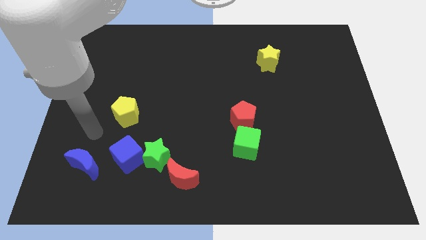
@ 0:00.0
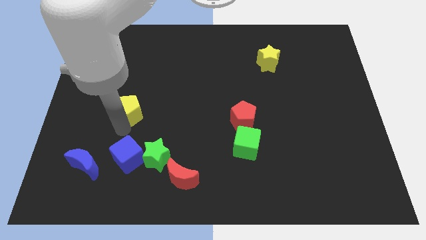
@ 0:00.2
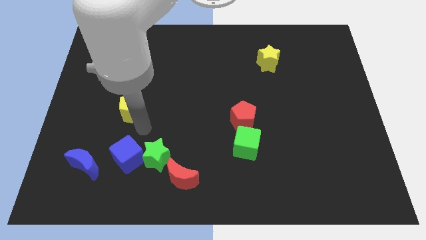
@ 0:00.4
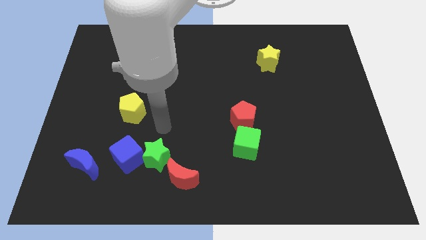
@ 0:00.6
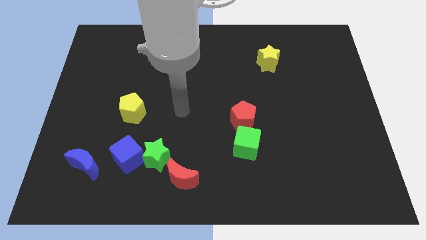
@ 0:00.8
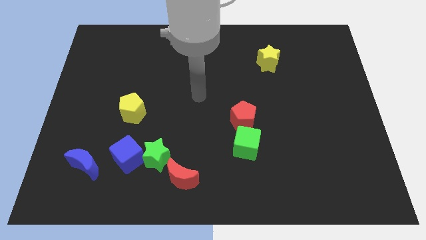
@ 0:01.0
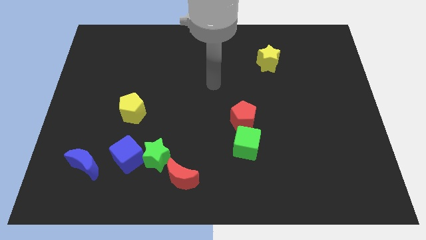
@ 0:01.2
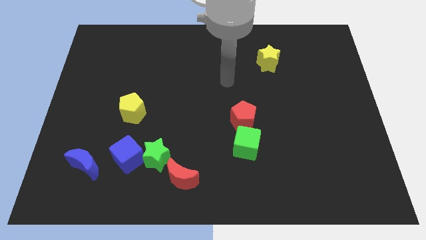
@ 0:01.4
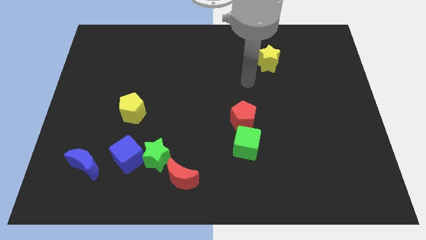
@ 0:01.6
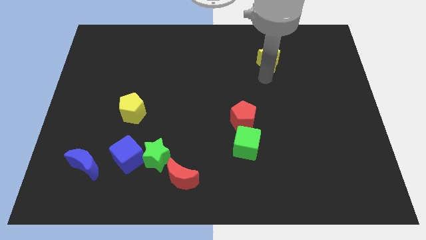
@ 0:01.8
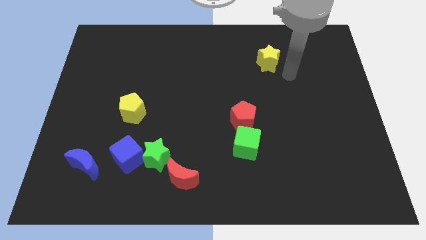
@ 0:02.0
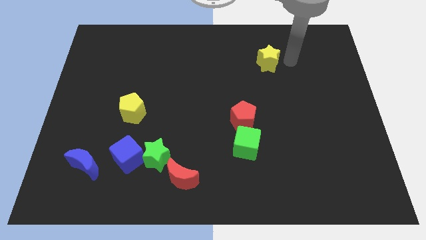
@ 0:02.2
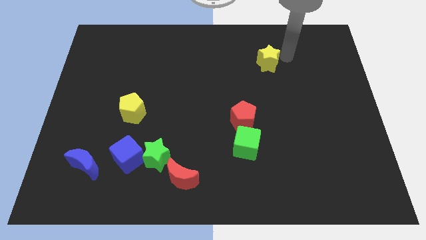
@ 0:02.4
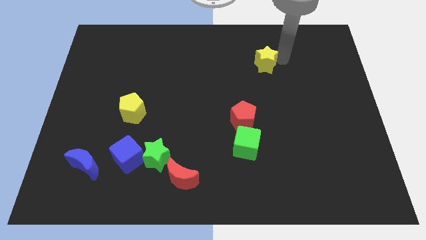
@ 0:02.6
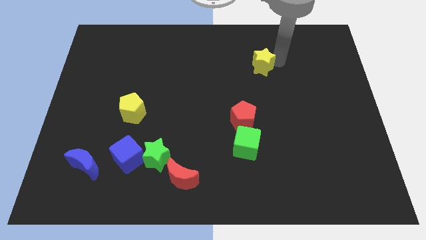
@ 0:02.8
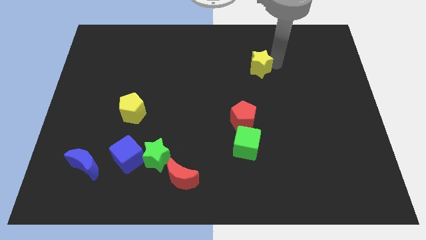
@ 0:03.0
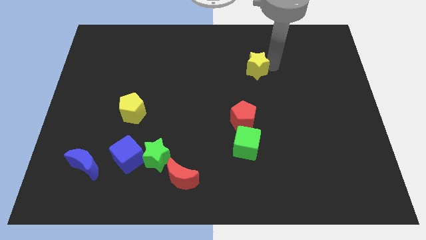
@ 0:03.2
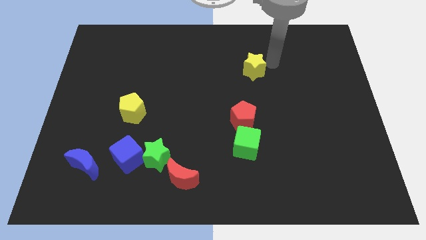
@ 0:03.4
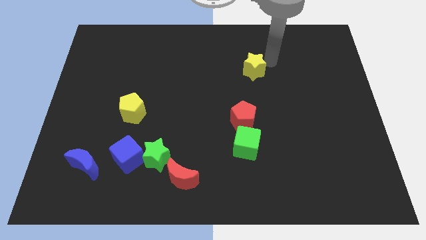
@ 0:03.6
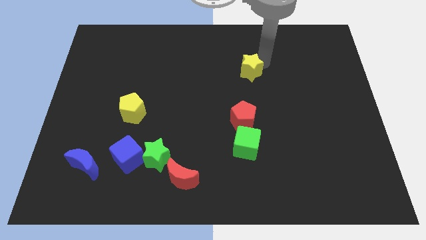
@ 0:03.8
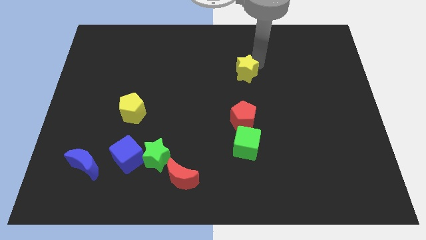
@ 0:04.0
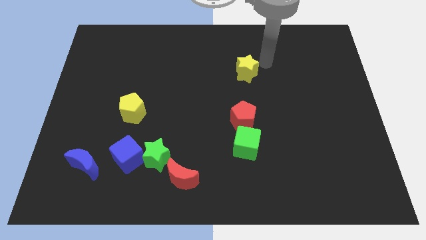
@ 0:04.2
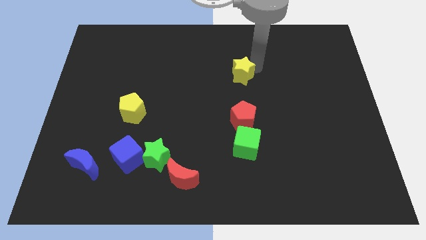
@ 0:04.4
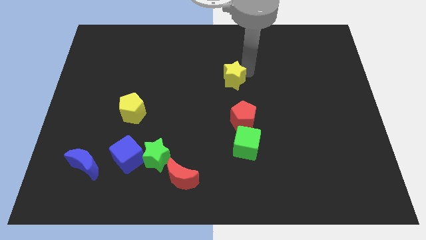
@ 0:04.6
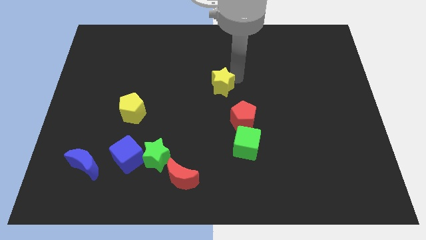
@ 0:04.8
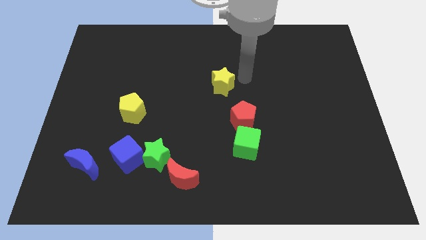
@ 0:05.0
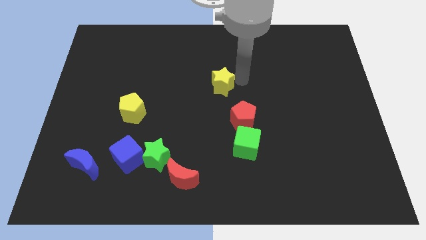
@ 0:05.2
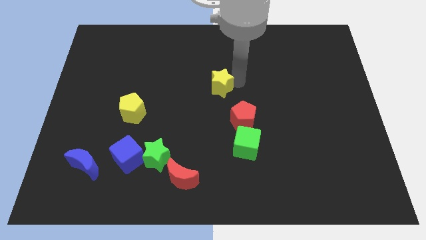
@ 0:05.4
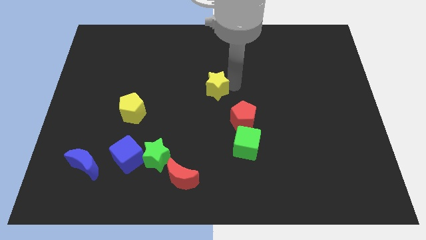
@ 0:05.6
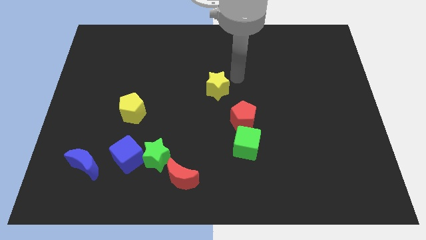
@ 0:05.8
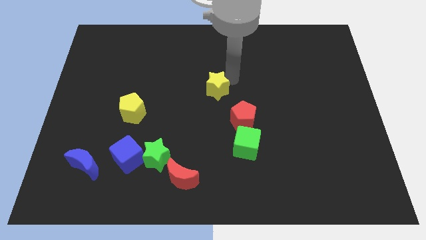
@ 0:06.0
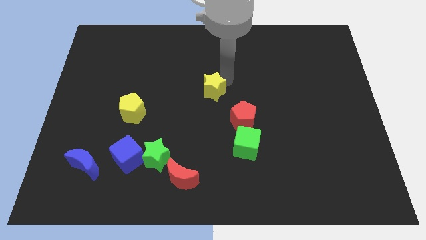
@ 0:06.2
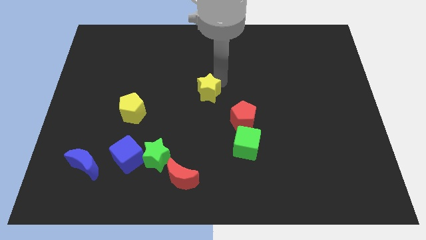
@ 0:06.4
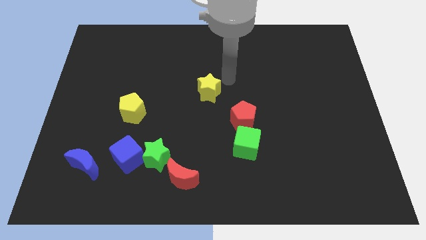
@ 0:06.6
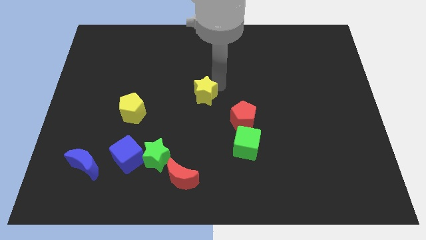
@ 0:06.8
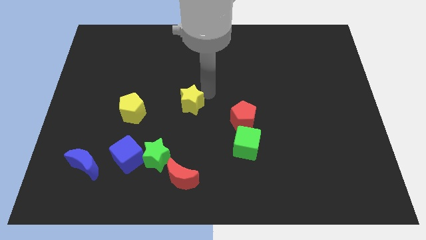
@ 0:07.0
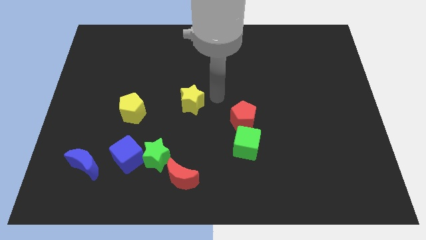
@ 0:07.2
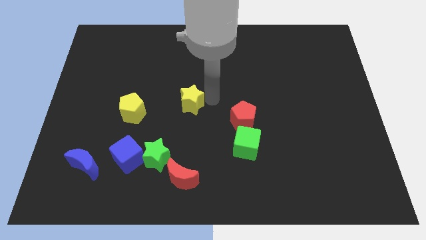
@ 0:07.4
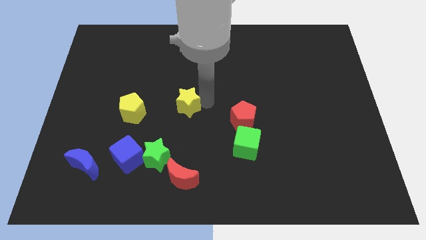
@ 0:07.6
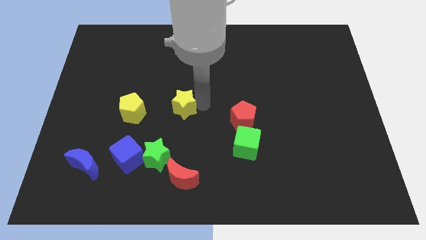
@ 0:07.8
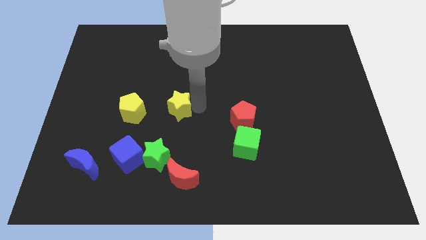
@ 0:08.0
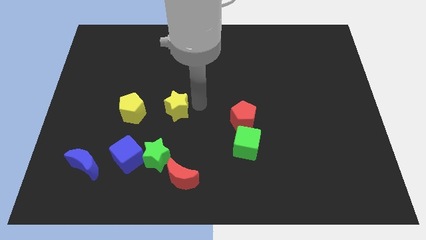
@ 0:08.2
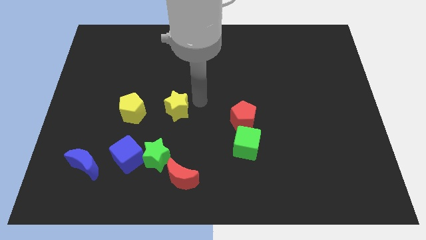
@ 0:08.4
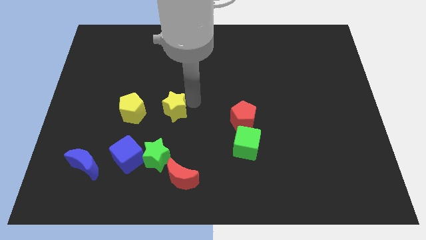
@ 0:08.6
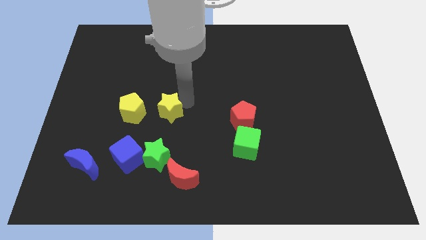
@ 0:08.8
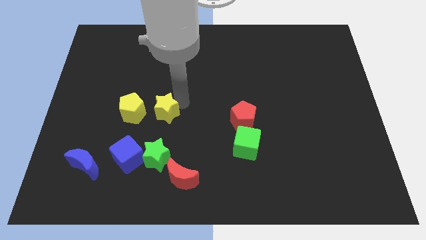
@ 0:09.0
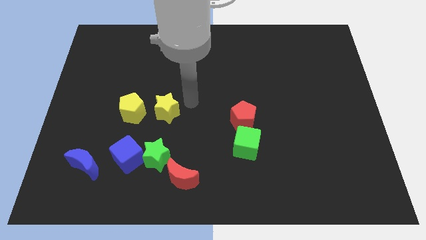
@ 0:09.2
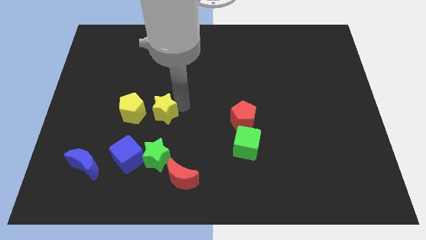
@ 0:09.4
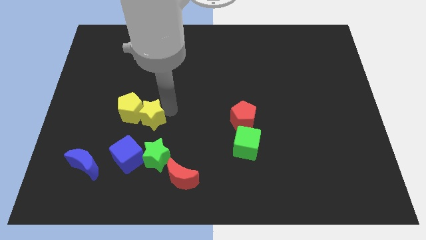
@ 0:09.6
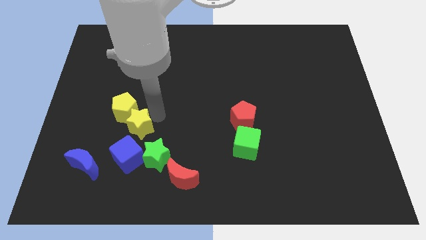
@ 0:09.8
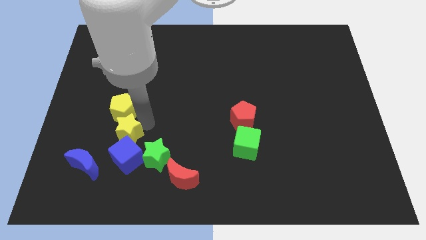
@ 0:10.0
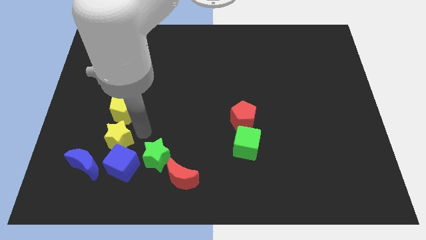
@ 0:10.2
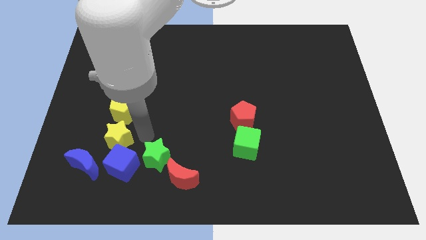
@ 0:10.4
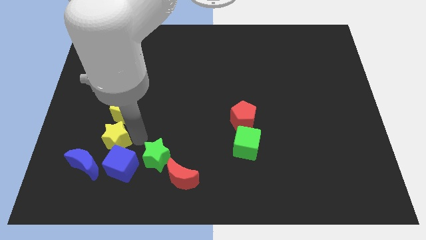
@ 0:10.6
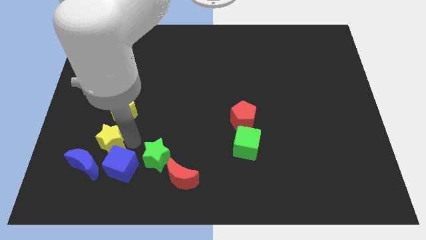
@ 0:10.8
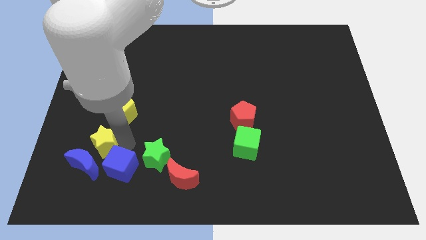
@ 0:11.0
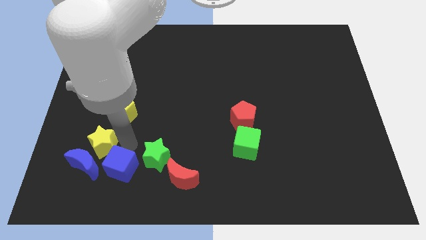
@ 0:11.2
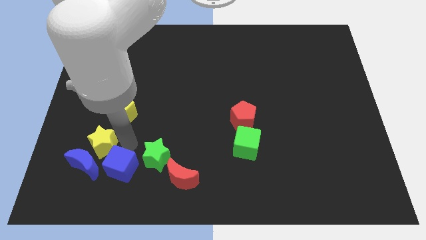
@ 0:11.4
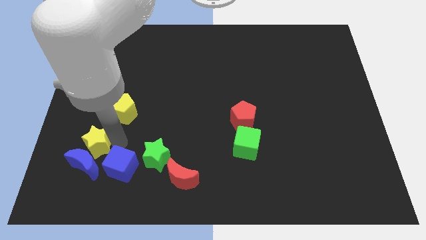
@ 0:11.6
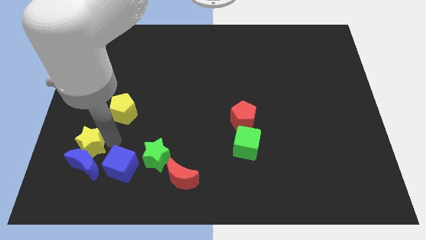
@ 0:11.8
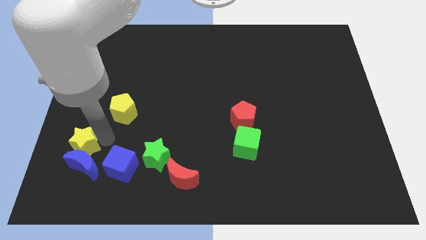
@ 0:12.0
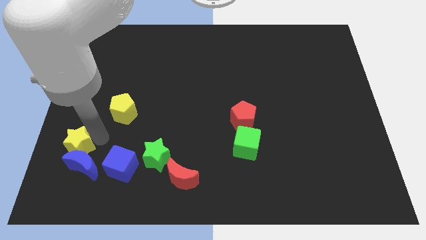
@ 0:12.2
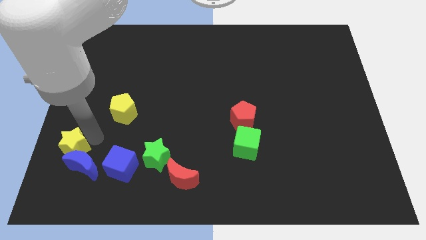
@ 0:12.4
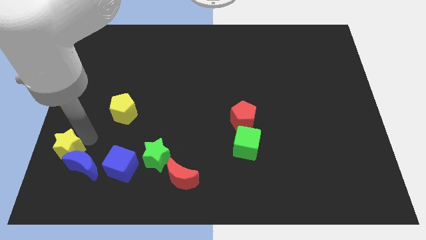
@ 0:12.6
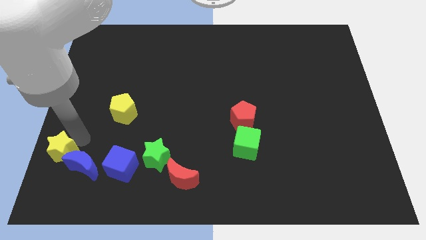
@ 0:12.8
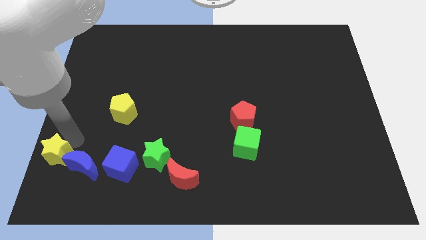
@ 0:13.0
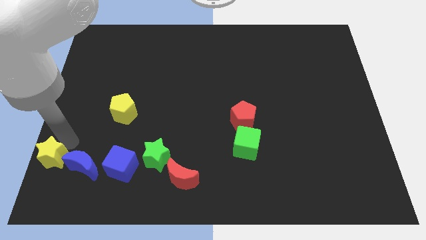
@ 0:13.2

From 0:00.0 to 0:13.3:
put the yellow star to the bottom left of the board
